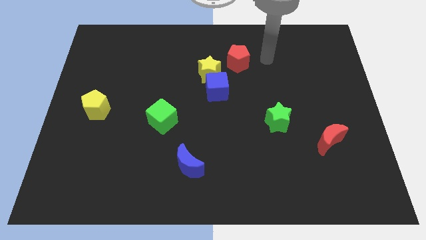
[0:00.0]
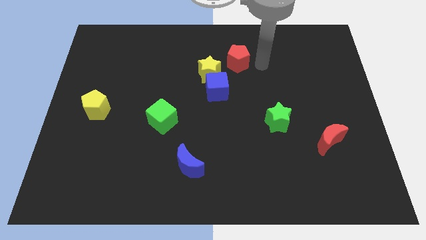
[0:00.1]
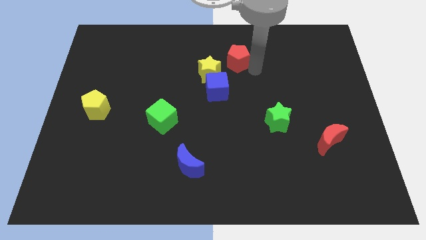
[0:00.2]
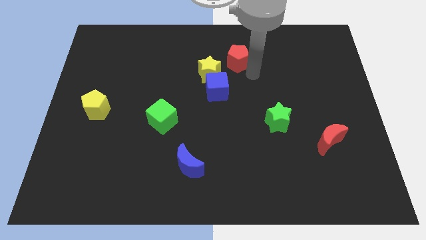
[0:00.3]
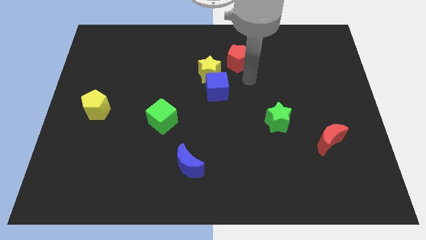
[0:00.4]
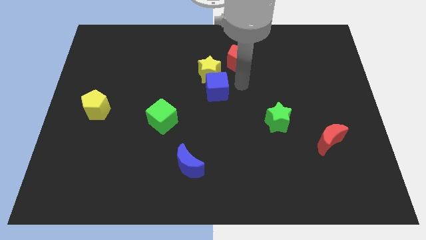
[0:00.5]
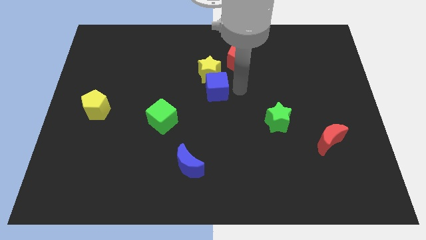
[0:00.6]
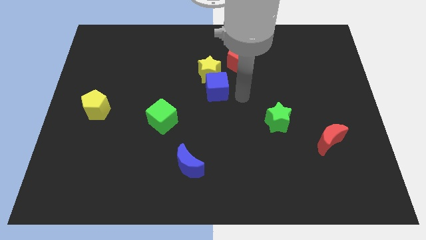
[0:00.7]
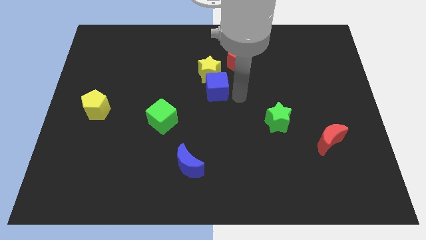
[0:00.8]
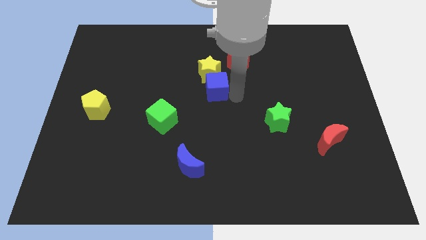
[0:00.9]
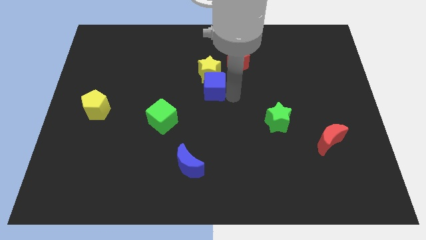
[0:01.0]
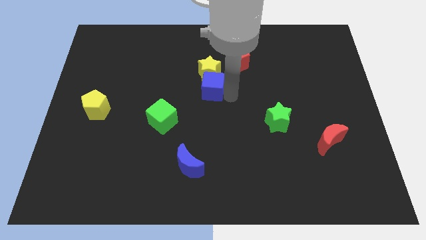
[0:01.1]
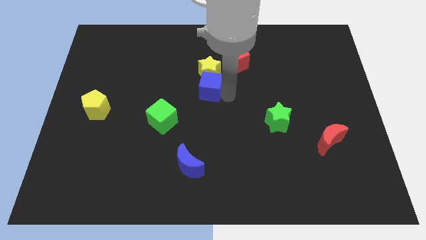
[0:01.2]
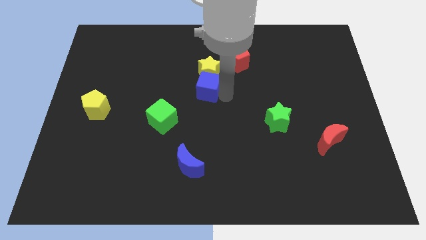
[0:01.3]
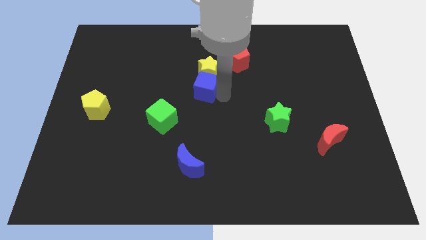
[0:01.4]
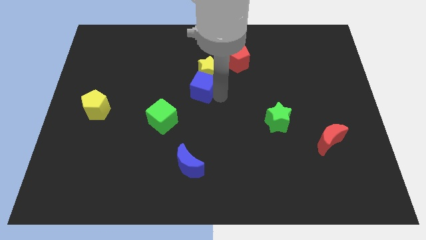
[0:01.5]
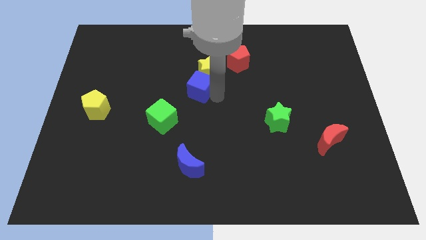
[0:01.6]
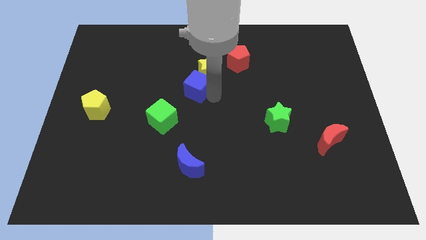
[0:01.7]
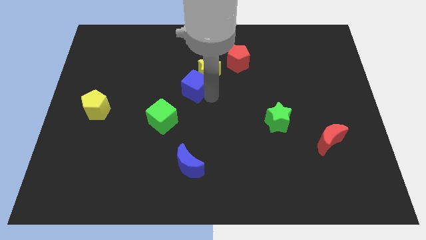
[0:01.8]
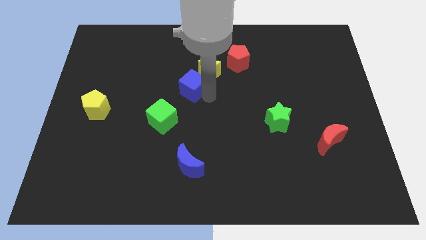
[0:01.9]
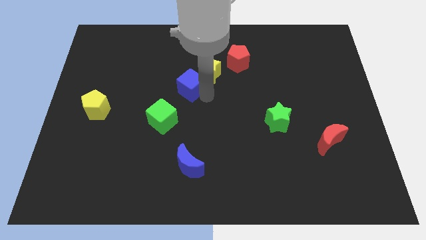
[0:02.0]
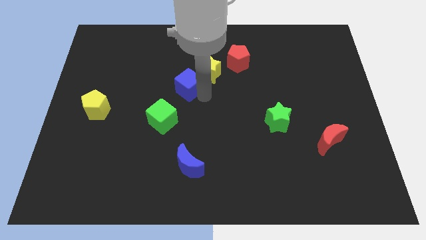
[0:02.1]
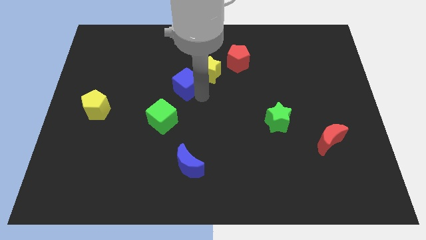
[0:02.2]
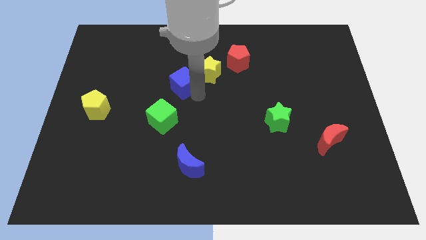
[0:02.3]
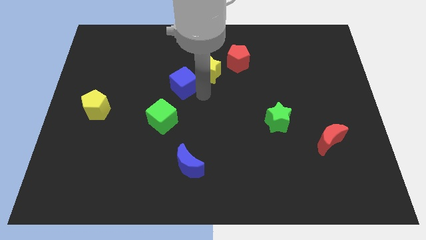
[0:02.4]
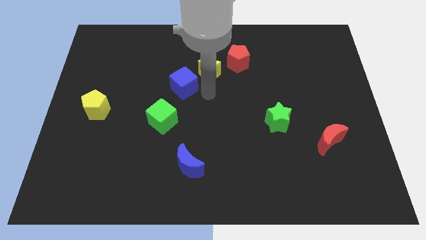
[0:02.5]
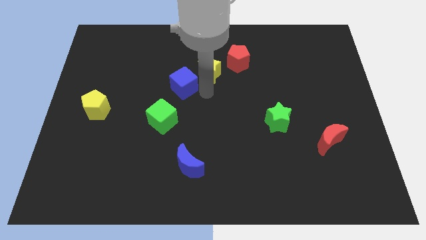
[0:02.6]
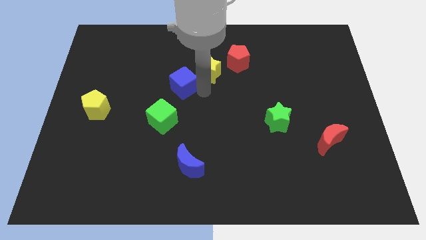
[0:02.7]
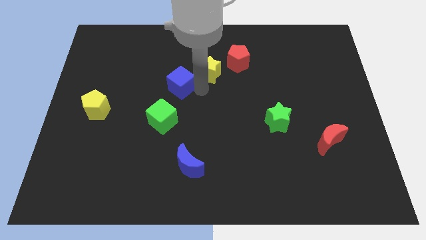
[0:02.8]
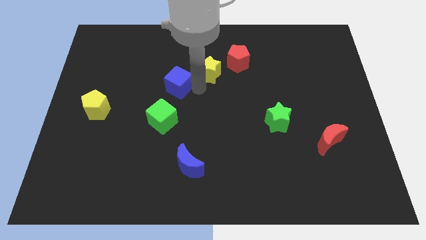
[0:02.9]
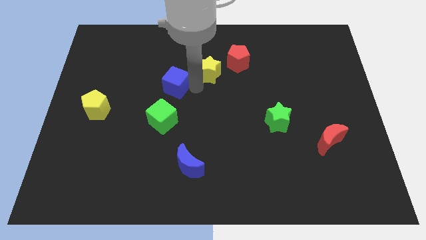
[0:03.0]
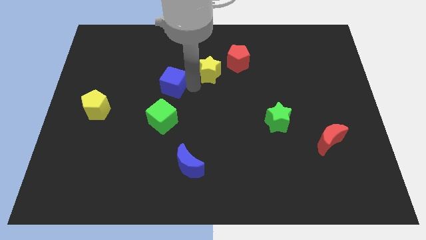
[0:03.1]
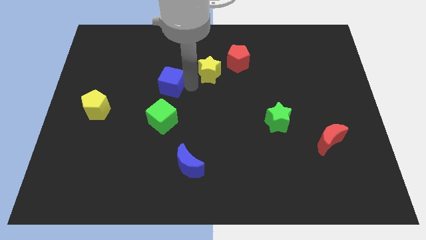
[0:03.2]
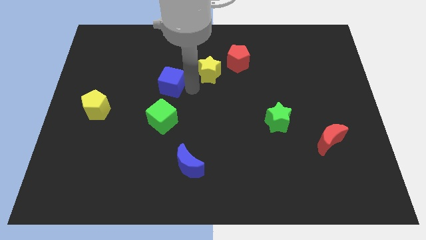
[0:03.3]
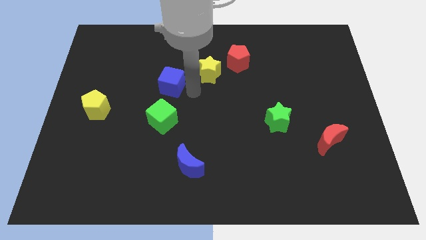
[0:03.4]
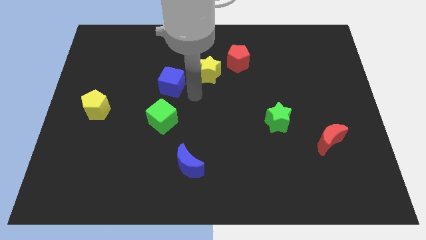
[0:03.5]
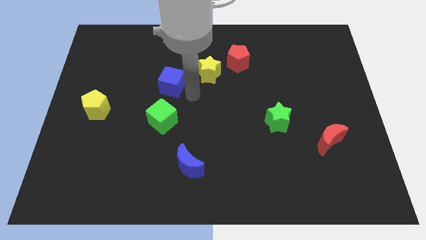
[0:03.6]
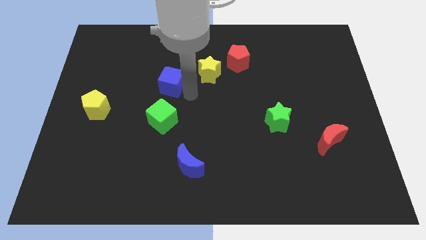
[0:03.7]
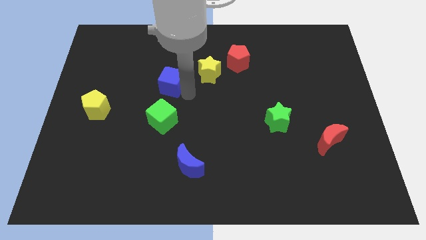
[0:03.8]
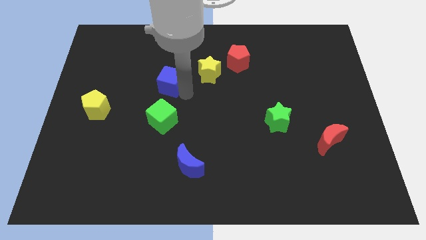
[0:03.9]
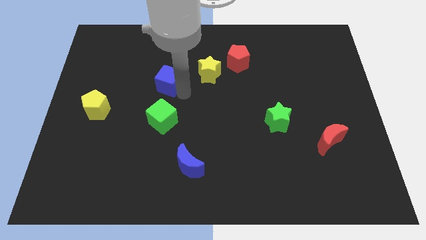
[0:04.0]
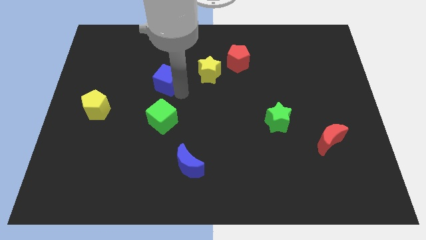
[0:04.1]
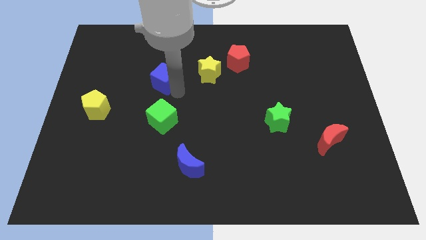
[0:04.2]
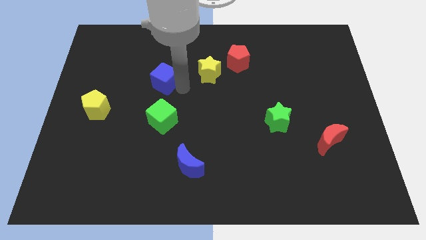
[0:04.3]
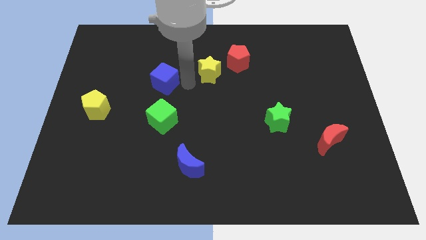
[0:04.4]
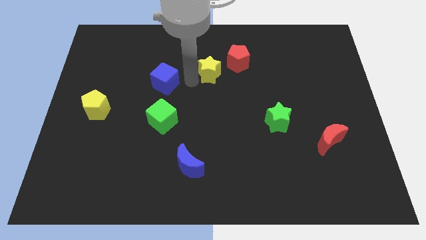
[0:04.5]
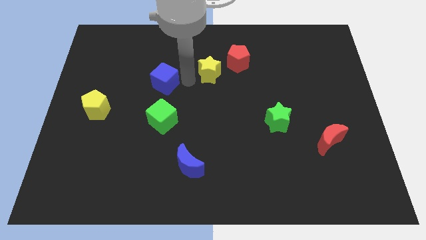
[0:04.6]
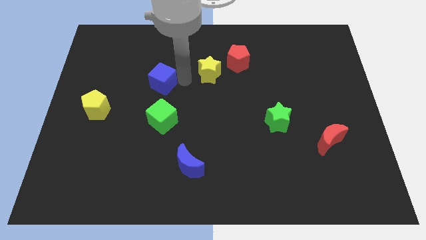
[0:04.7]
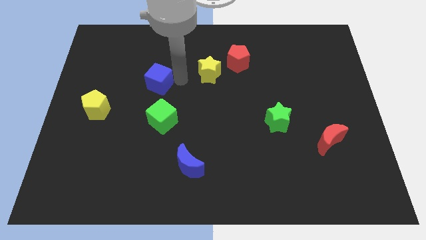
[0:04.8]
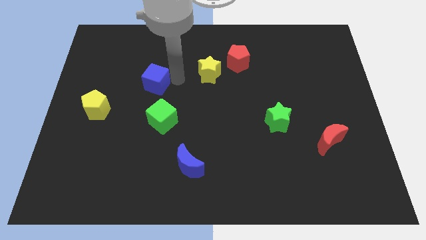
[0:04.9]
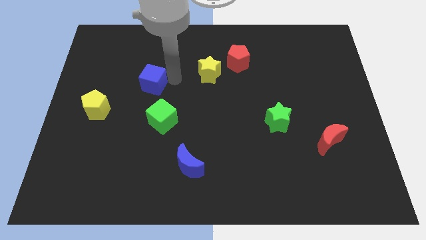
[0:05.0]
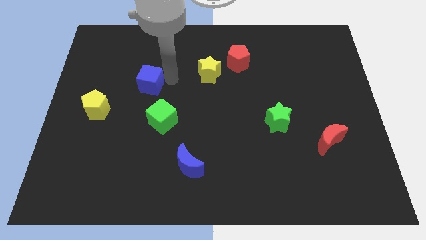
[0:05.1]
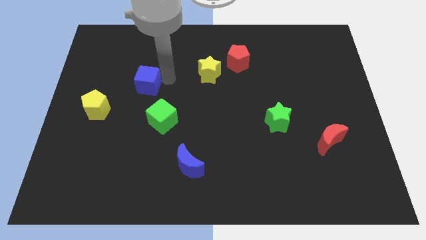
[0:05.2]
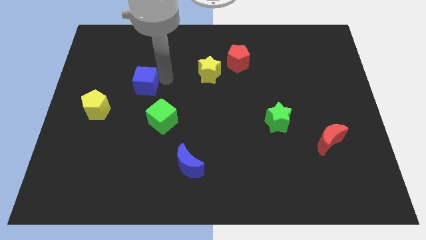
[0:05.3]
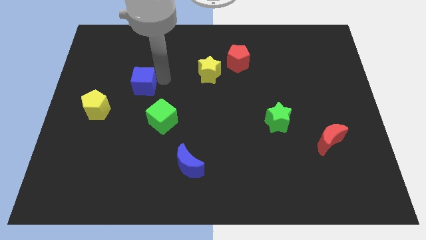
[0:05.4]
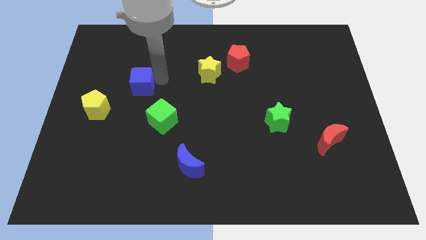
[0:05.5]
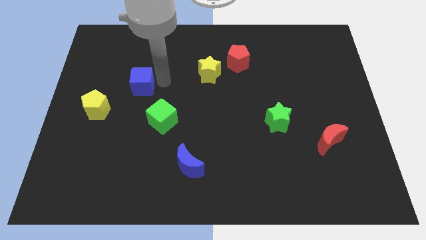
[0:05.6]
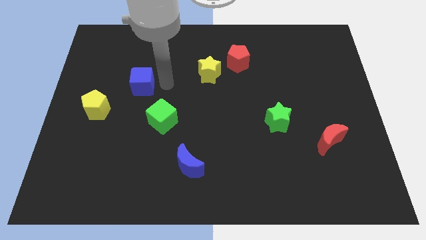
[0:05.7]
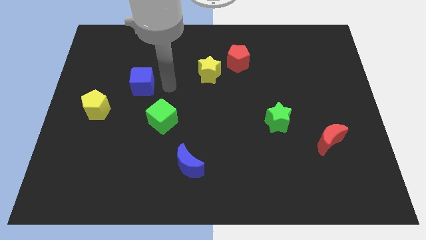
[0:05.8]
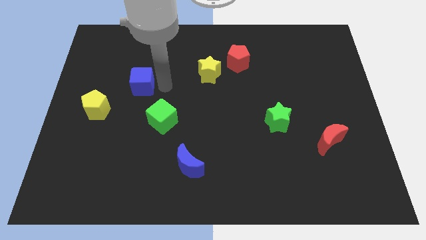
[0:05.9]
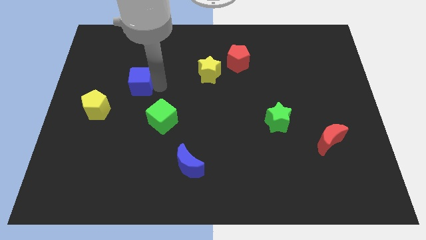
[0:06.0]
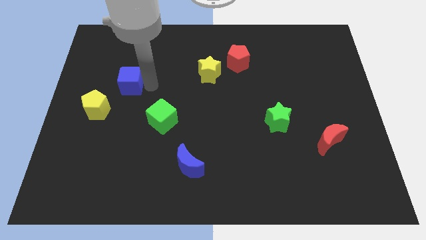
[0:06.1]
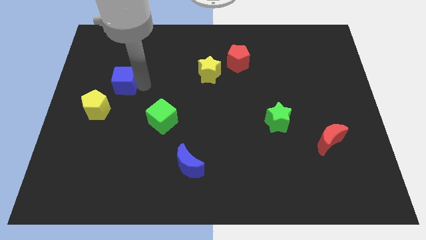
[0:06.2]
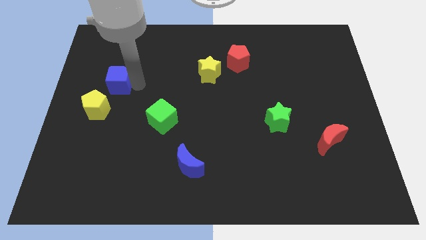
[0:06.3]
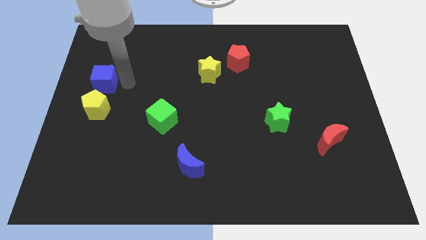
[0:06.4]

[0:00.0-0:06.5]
slide the blue cube to the left side
